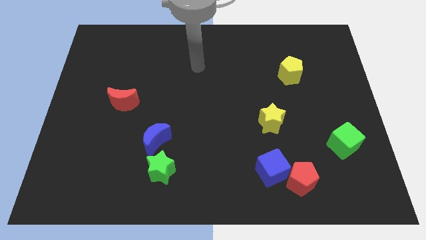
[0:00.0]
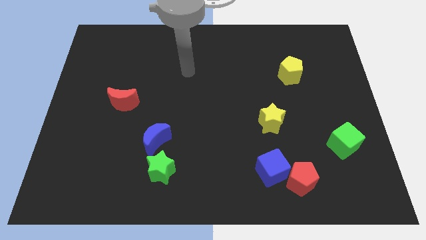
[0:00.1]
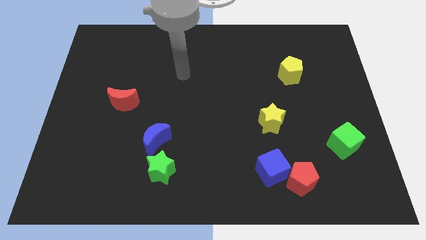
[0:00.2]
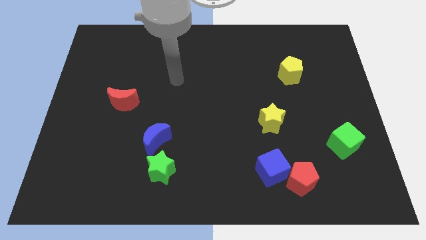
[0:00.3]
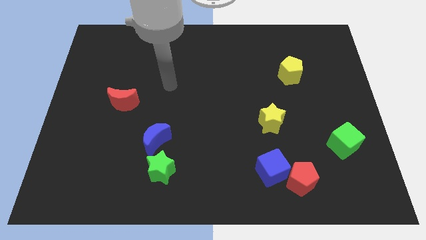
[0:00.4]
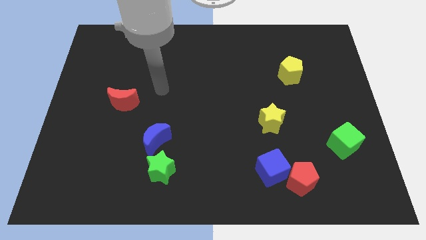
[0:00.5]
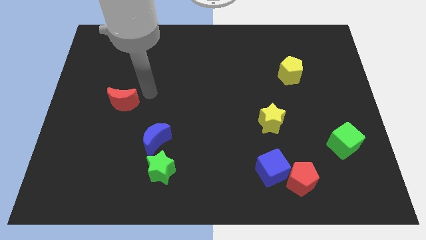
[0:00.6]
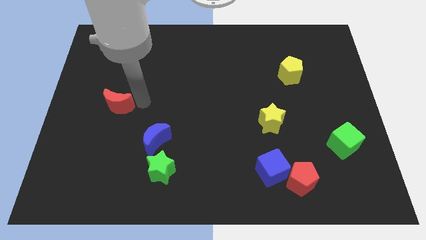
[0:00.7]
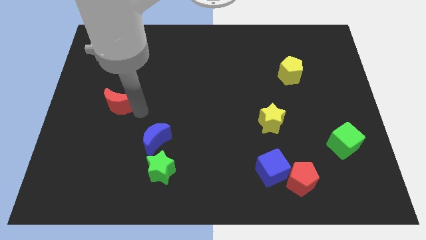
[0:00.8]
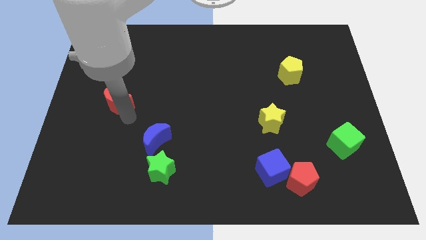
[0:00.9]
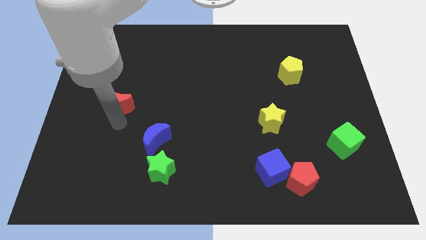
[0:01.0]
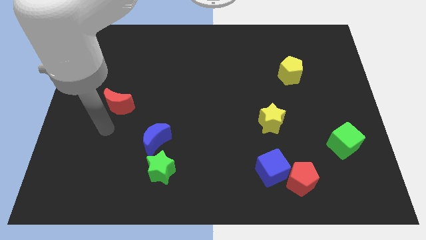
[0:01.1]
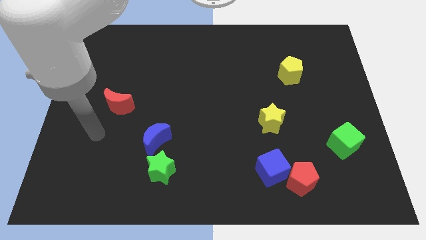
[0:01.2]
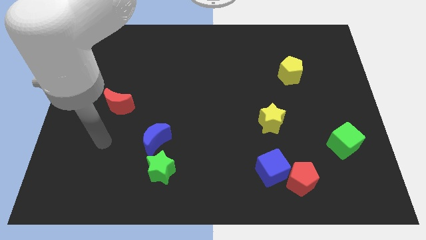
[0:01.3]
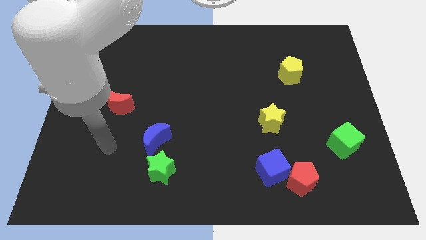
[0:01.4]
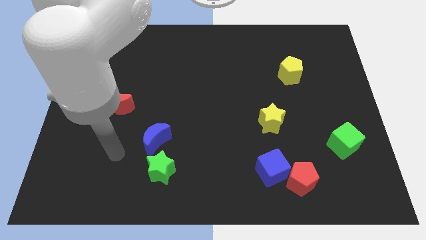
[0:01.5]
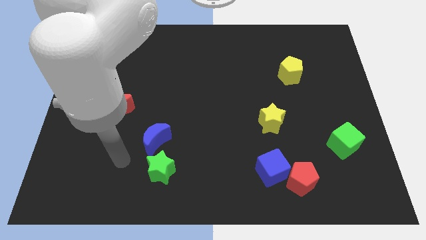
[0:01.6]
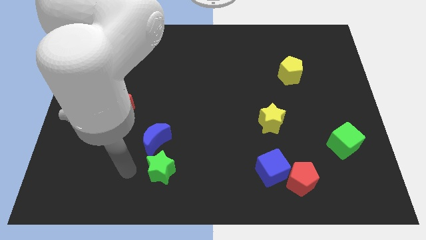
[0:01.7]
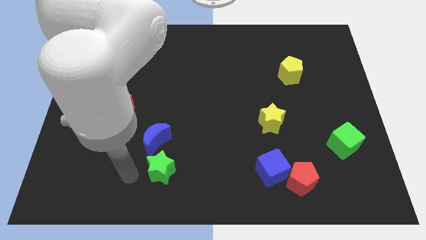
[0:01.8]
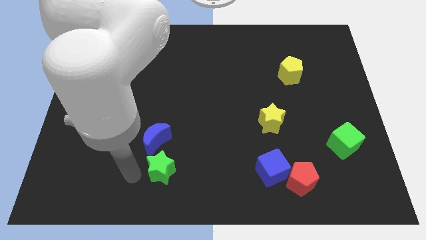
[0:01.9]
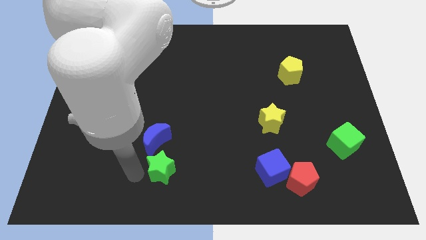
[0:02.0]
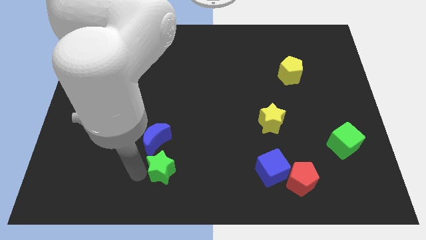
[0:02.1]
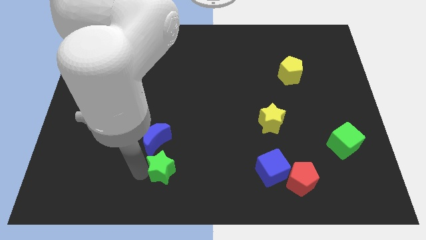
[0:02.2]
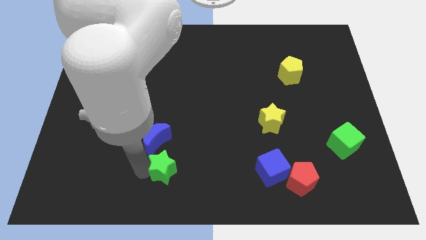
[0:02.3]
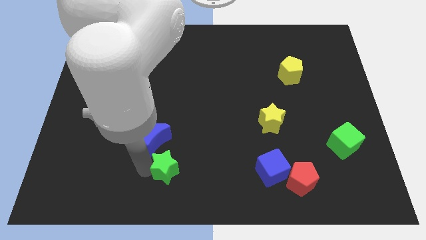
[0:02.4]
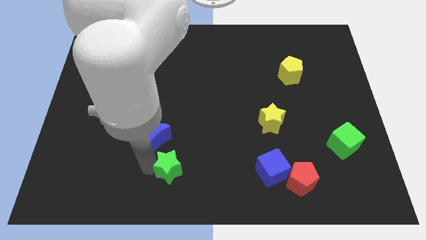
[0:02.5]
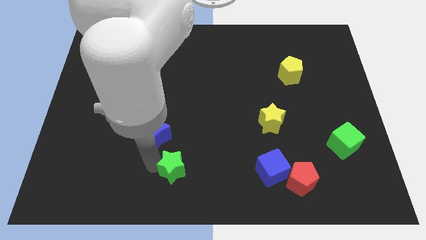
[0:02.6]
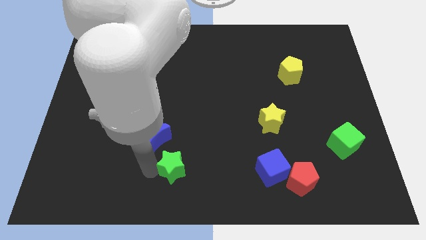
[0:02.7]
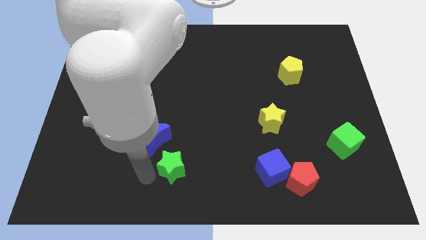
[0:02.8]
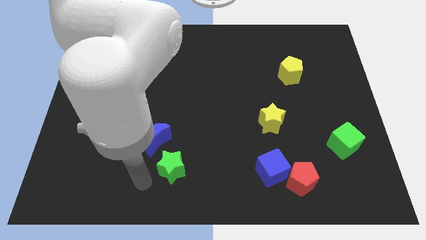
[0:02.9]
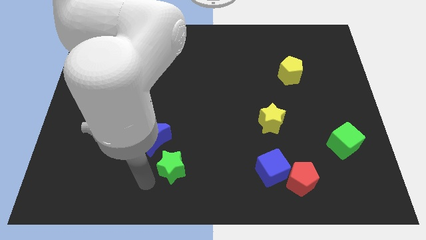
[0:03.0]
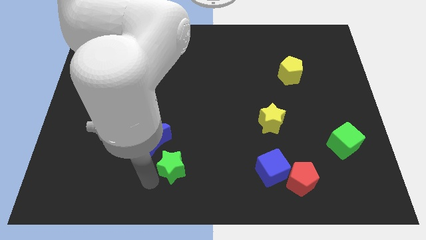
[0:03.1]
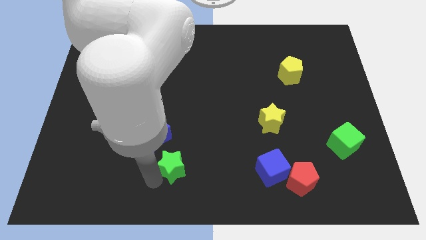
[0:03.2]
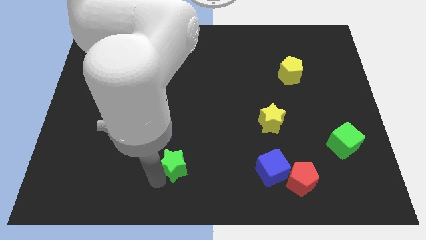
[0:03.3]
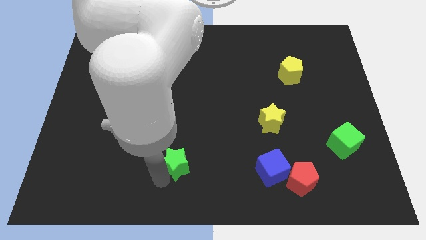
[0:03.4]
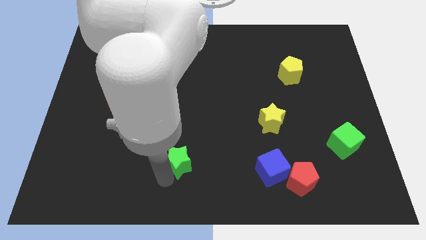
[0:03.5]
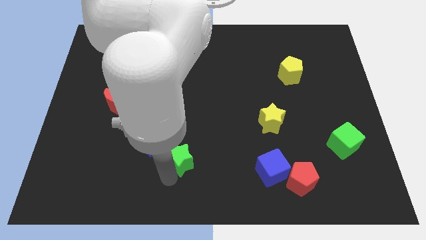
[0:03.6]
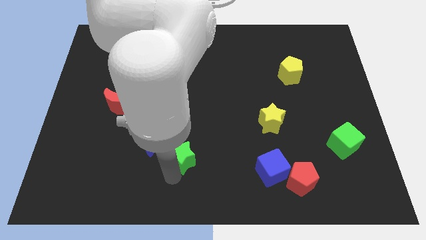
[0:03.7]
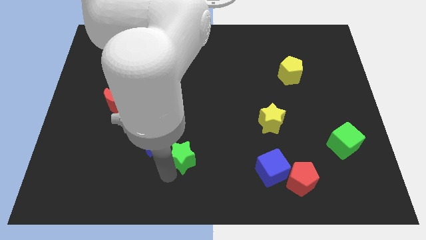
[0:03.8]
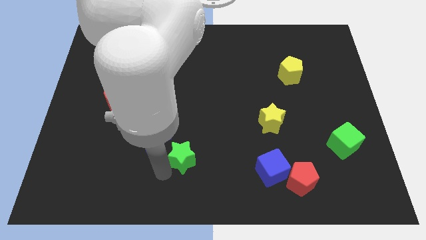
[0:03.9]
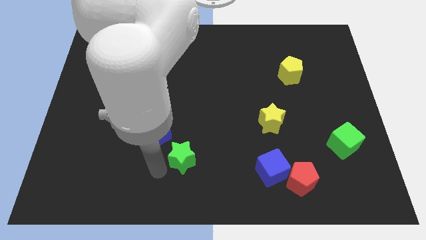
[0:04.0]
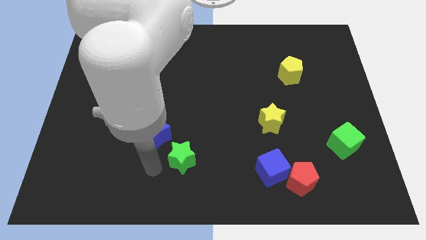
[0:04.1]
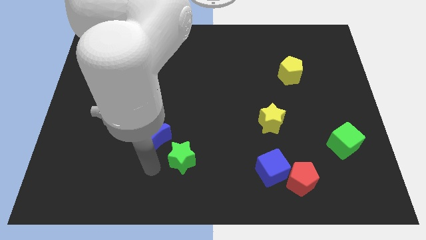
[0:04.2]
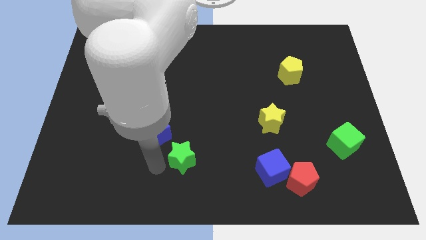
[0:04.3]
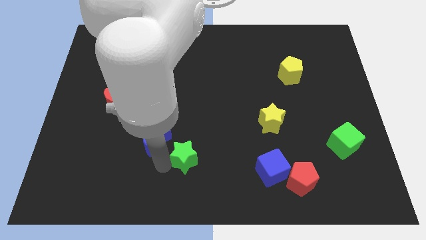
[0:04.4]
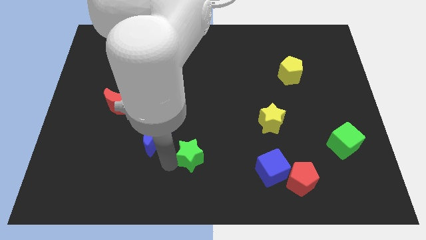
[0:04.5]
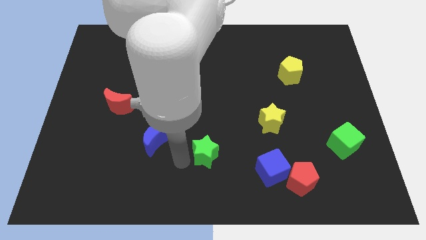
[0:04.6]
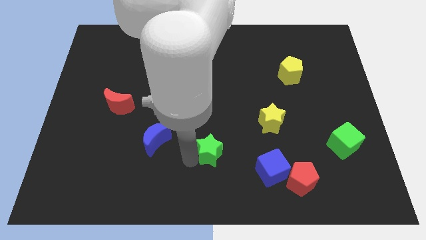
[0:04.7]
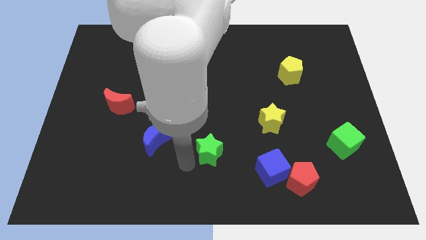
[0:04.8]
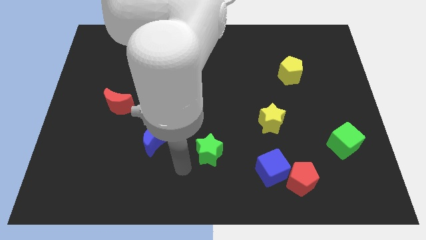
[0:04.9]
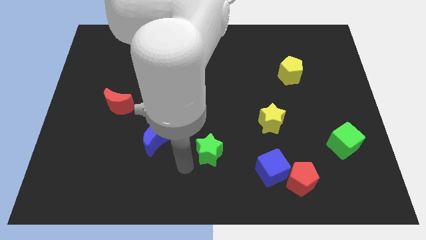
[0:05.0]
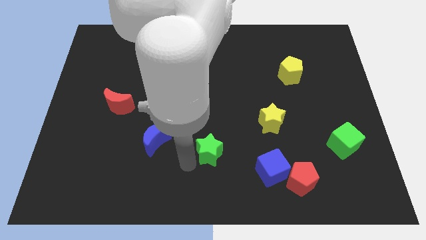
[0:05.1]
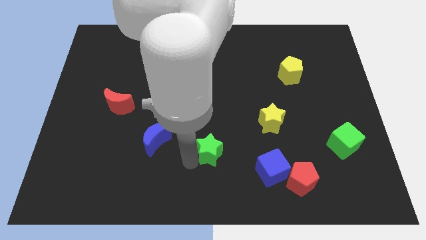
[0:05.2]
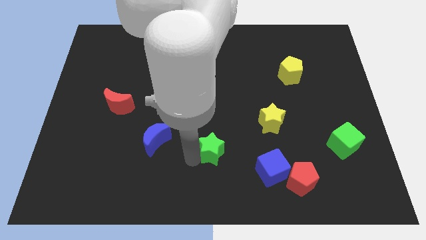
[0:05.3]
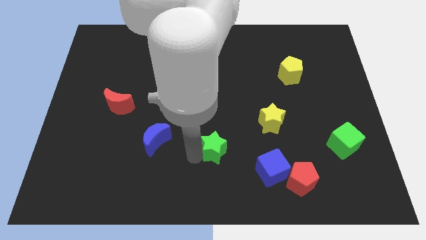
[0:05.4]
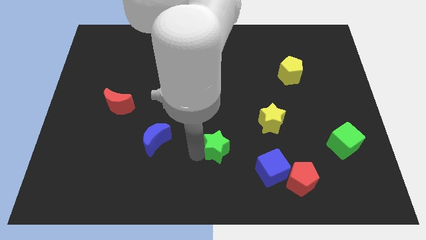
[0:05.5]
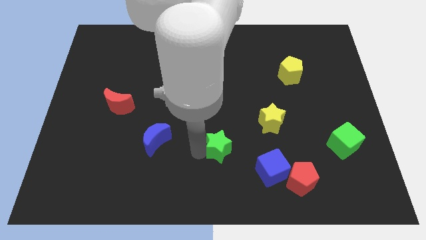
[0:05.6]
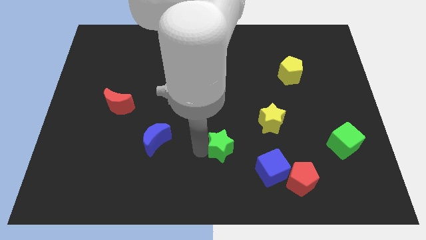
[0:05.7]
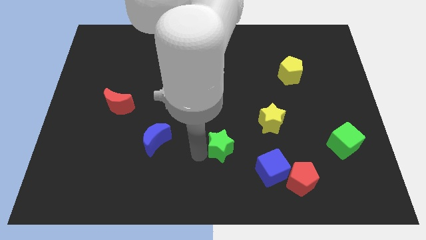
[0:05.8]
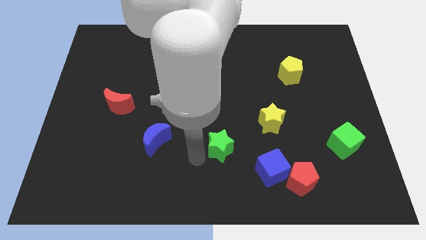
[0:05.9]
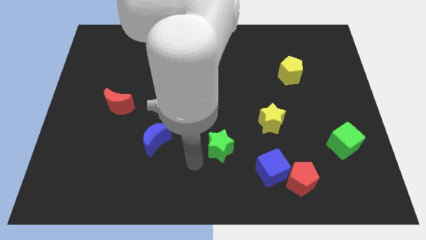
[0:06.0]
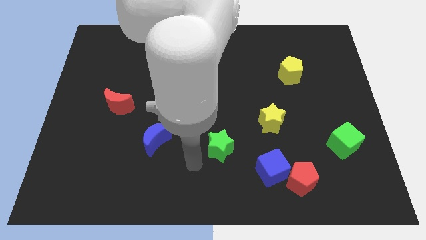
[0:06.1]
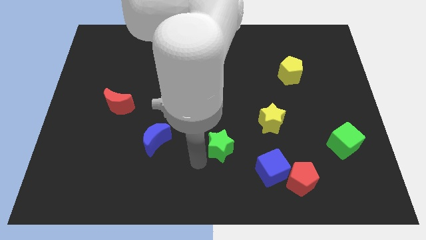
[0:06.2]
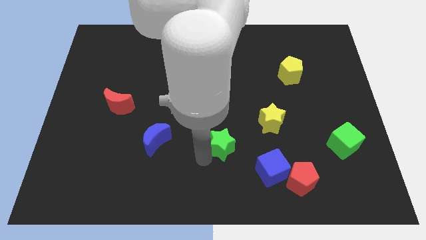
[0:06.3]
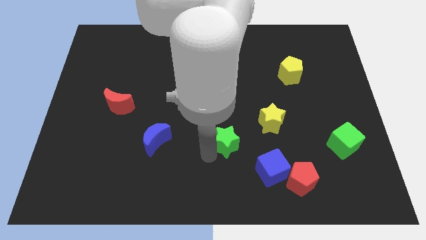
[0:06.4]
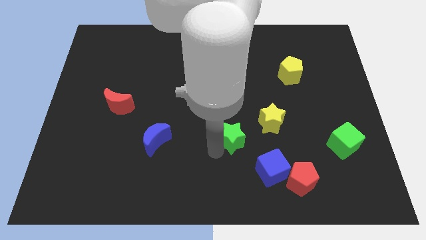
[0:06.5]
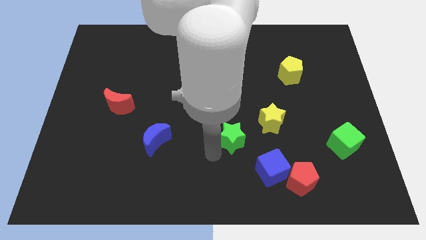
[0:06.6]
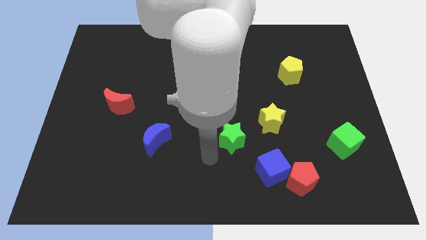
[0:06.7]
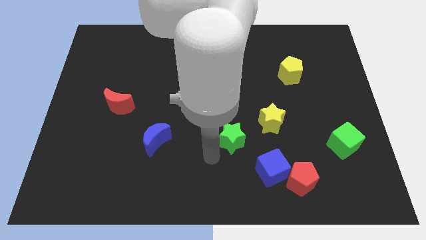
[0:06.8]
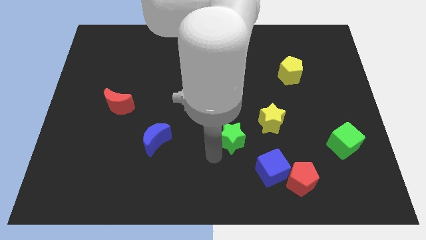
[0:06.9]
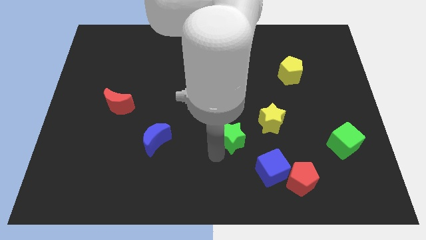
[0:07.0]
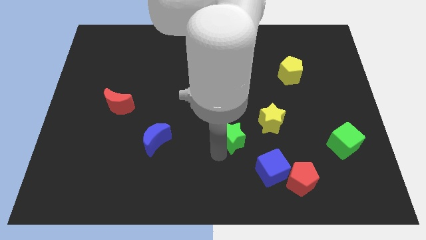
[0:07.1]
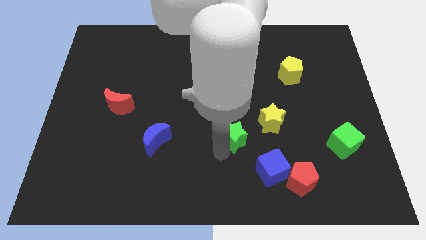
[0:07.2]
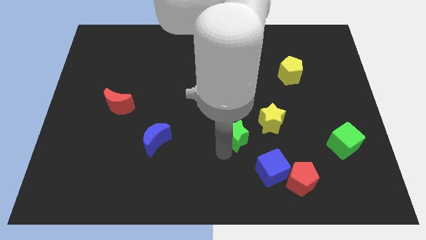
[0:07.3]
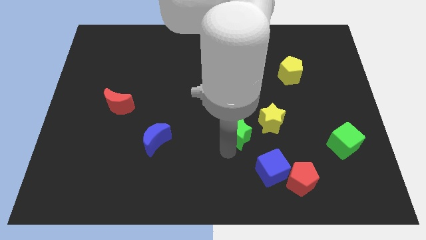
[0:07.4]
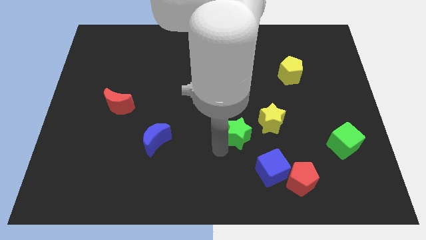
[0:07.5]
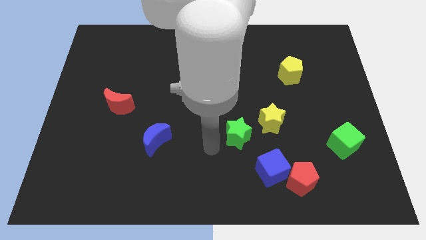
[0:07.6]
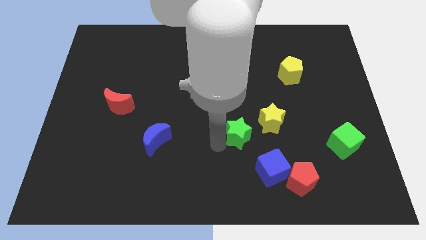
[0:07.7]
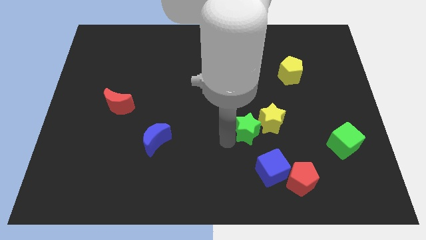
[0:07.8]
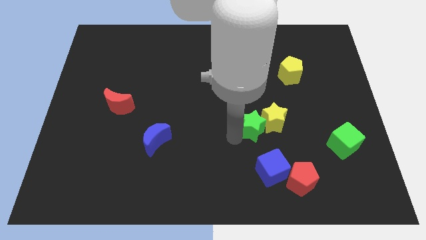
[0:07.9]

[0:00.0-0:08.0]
put the green star close to the yellow star
